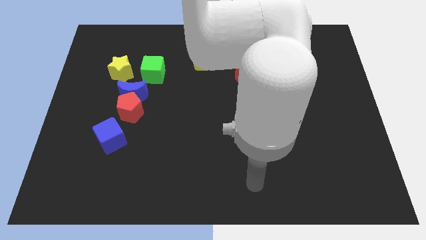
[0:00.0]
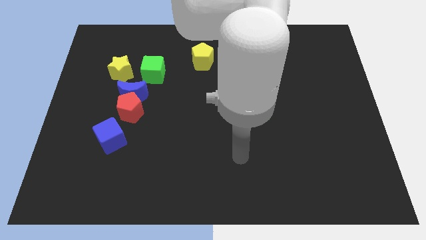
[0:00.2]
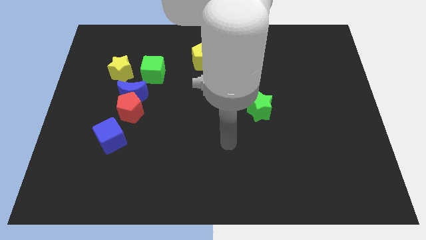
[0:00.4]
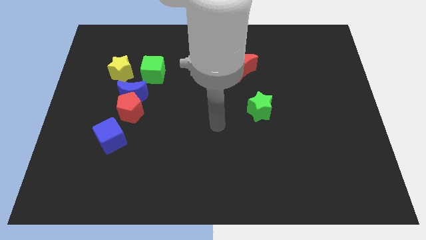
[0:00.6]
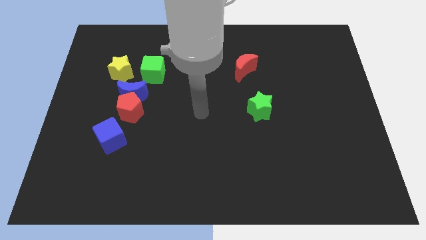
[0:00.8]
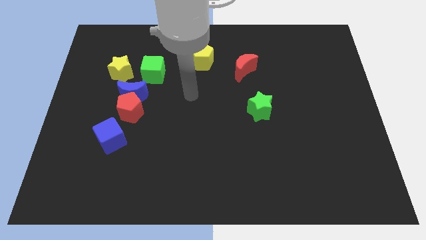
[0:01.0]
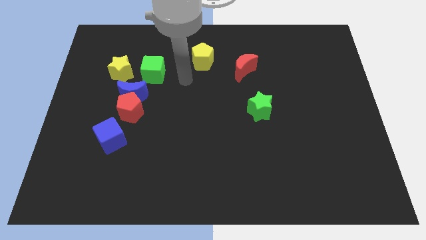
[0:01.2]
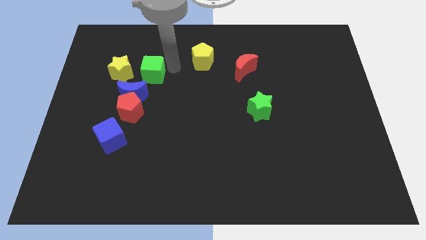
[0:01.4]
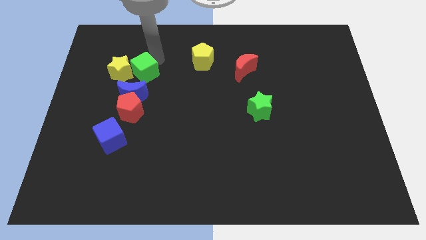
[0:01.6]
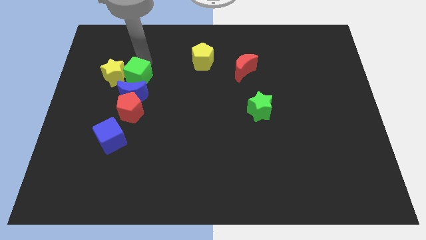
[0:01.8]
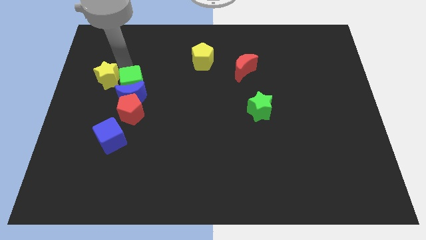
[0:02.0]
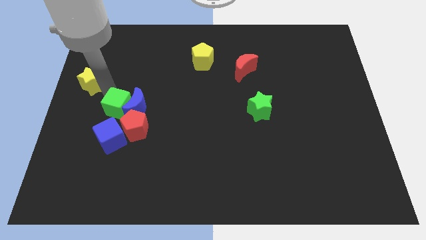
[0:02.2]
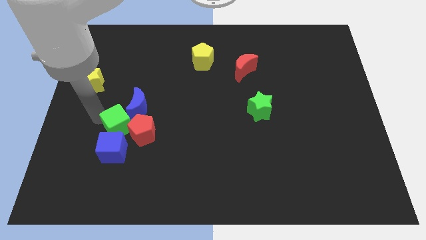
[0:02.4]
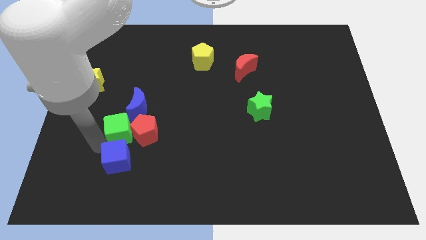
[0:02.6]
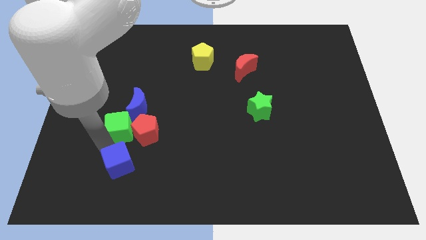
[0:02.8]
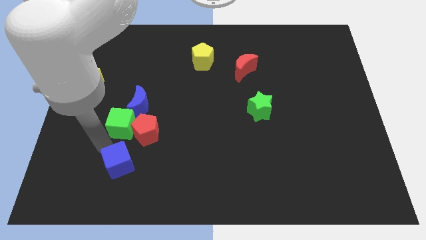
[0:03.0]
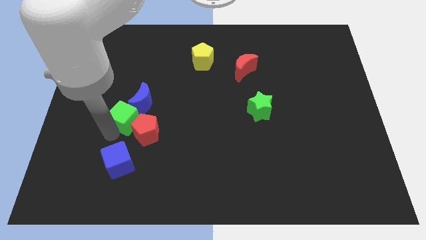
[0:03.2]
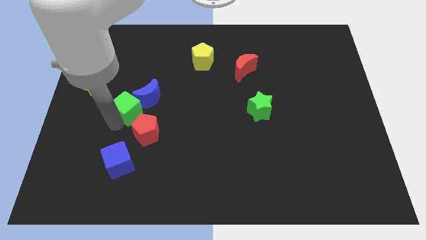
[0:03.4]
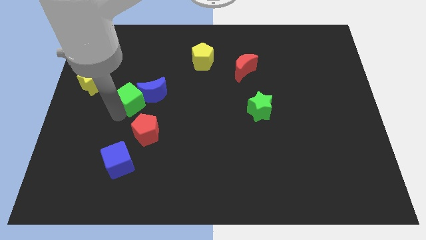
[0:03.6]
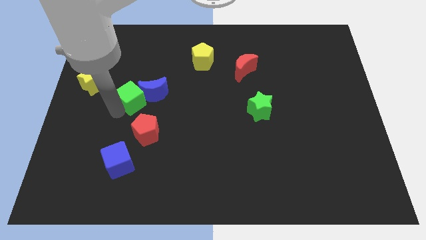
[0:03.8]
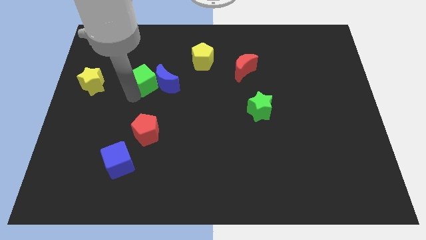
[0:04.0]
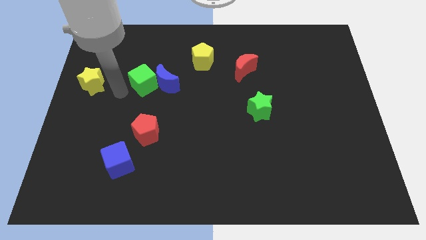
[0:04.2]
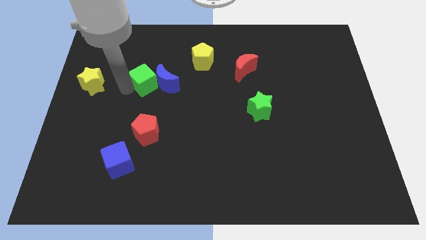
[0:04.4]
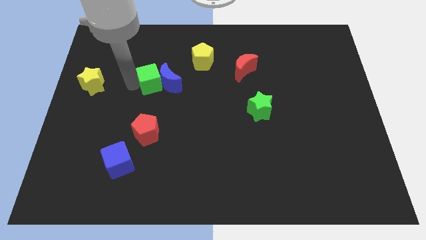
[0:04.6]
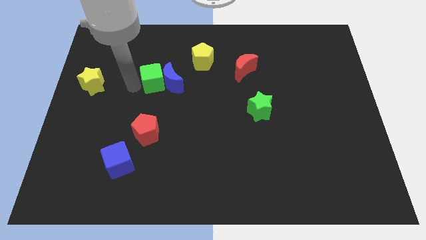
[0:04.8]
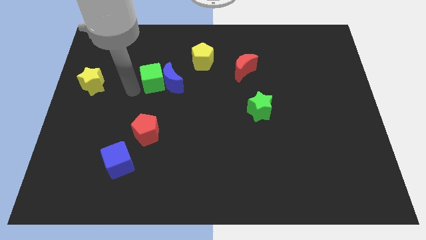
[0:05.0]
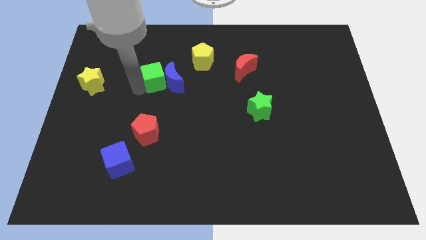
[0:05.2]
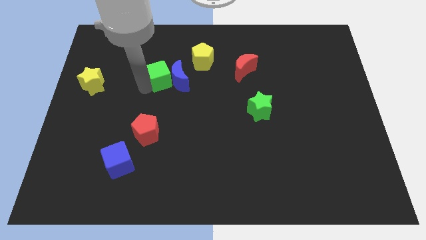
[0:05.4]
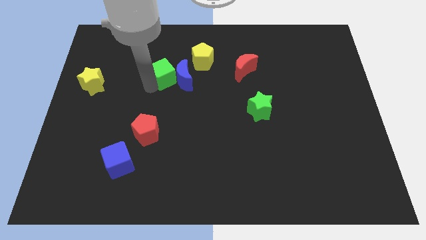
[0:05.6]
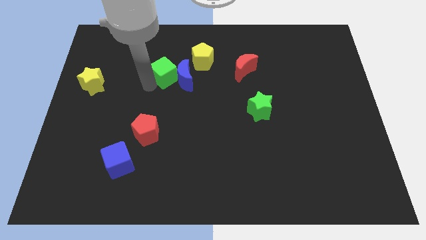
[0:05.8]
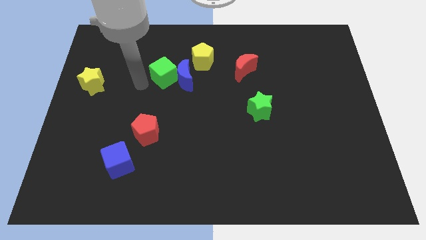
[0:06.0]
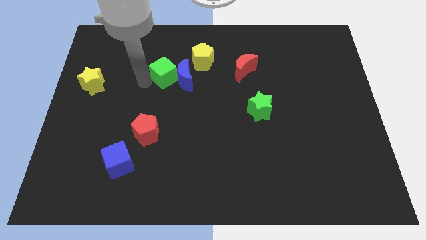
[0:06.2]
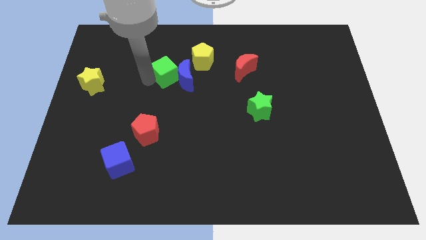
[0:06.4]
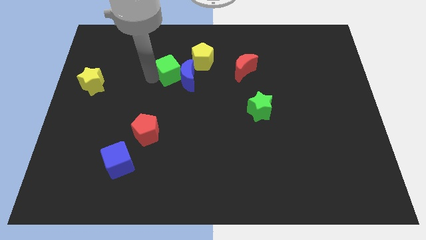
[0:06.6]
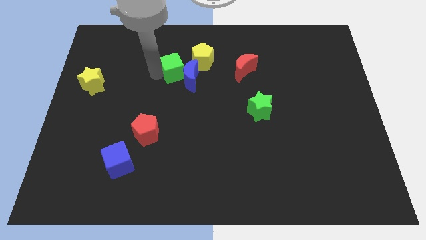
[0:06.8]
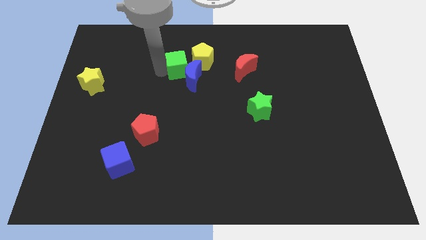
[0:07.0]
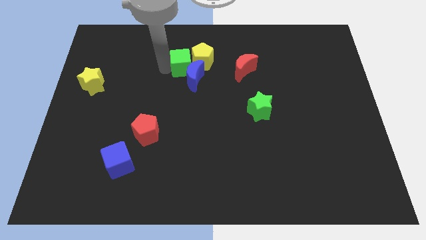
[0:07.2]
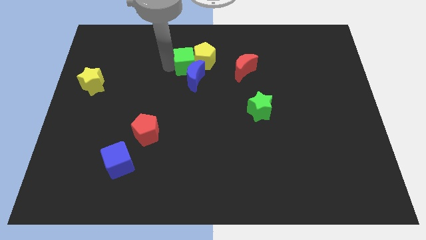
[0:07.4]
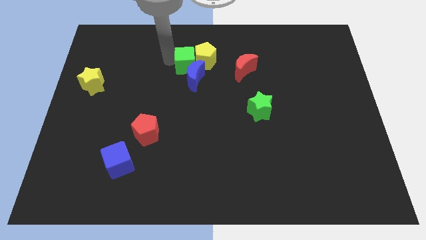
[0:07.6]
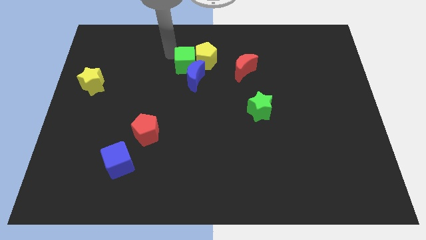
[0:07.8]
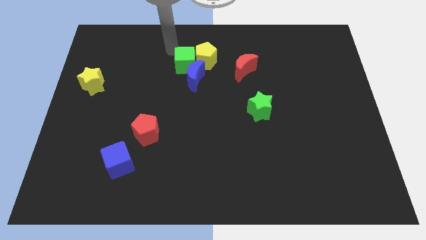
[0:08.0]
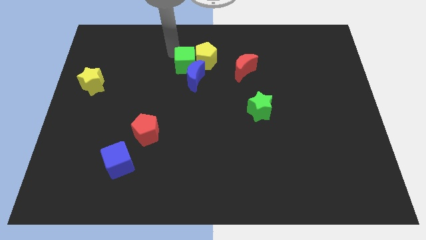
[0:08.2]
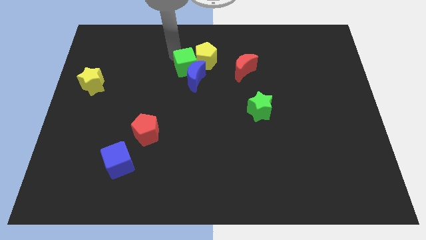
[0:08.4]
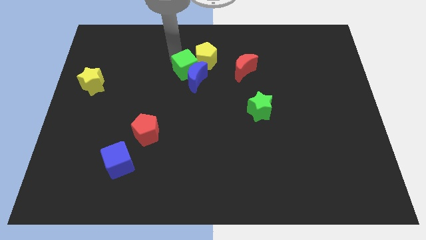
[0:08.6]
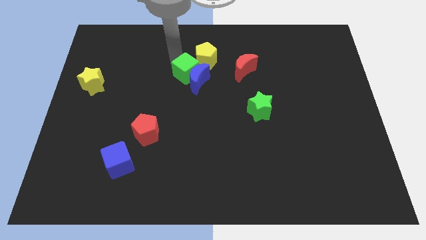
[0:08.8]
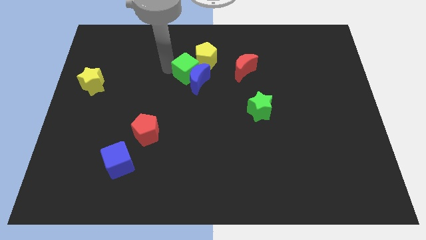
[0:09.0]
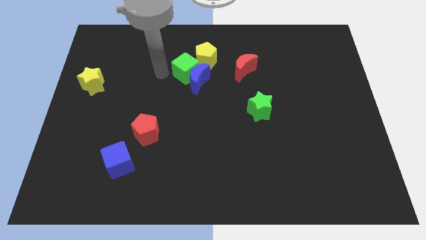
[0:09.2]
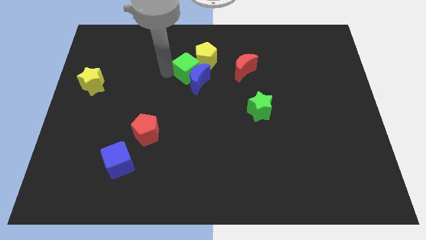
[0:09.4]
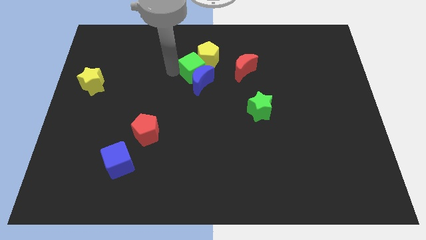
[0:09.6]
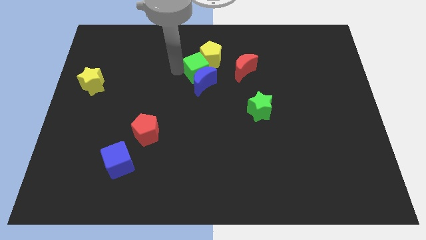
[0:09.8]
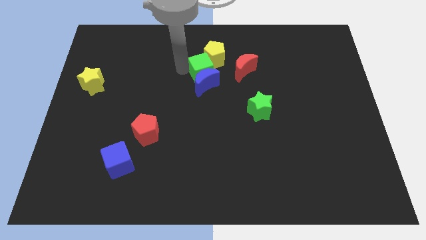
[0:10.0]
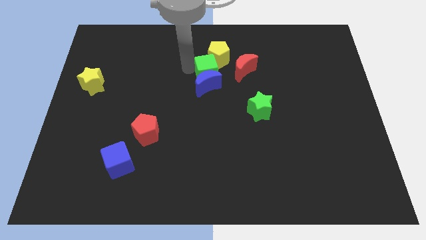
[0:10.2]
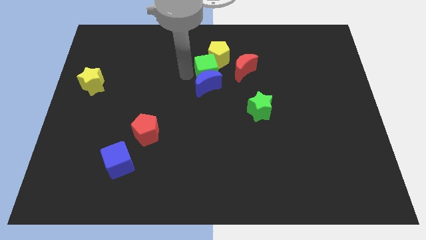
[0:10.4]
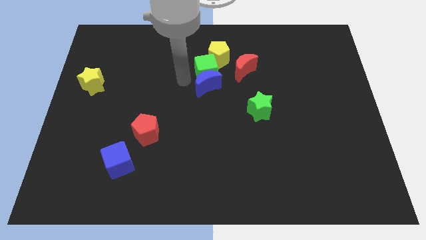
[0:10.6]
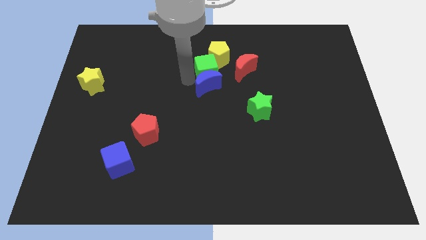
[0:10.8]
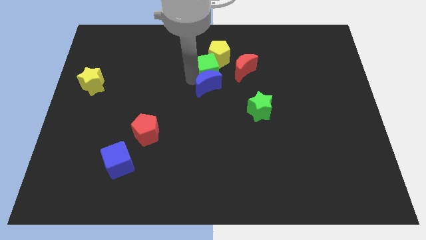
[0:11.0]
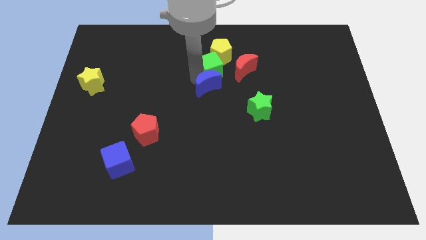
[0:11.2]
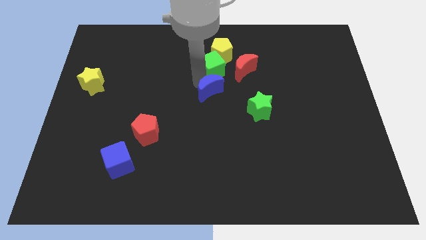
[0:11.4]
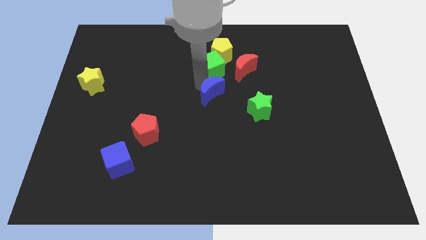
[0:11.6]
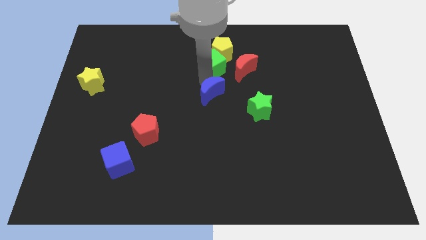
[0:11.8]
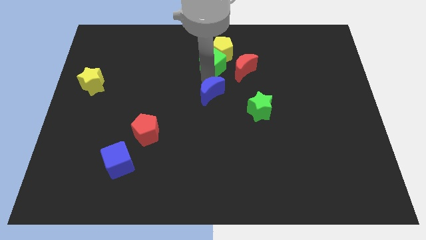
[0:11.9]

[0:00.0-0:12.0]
push the green cube to the top left side of the red moon

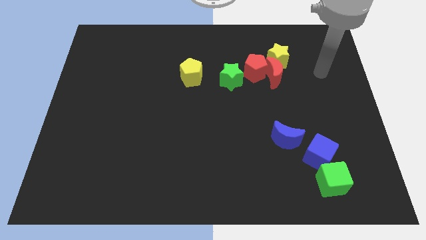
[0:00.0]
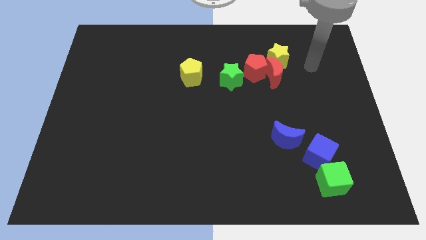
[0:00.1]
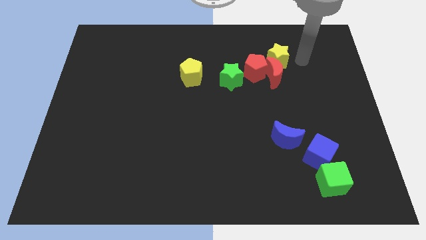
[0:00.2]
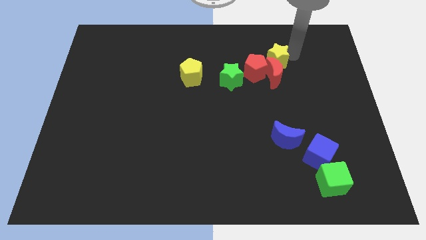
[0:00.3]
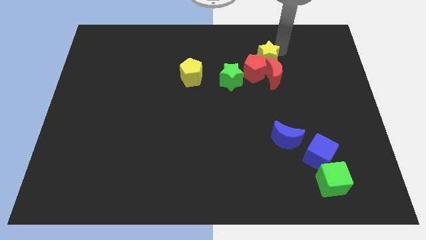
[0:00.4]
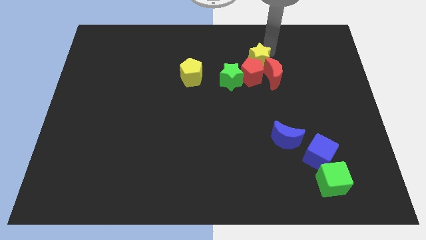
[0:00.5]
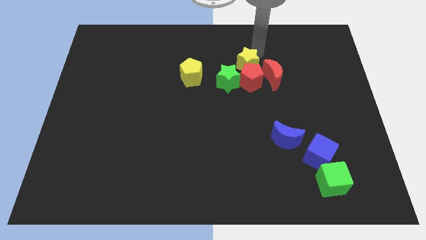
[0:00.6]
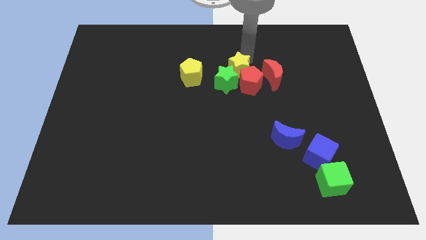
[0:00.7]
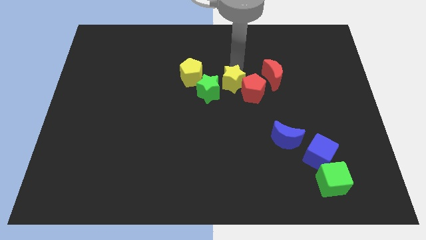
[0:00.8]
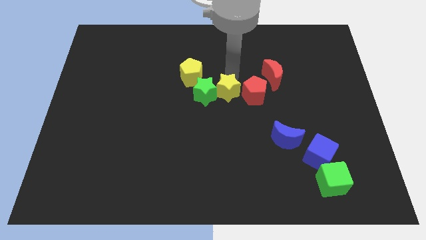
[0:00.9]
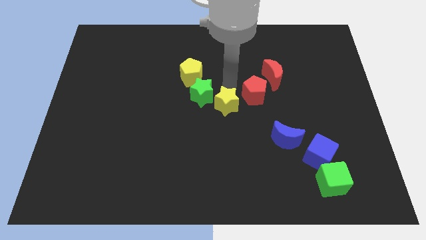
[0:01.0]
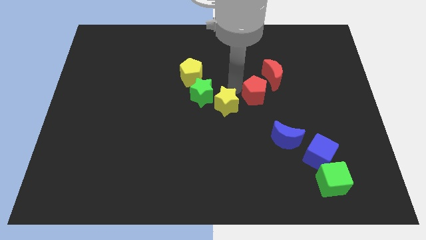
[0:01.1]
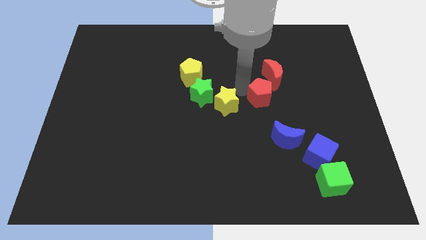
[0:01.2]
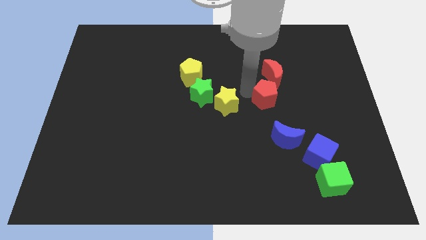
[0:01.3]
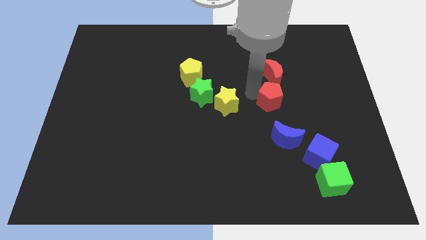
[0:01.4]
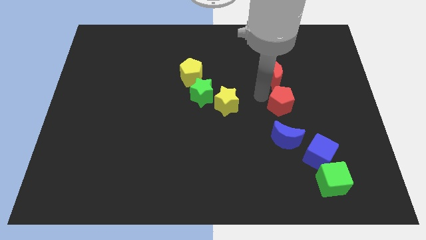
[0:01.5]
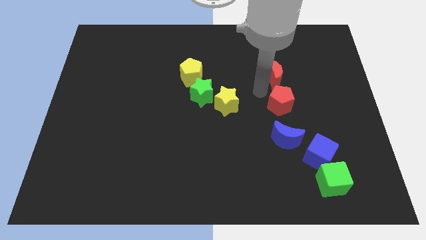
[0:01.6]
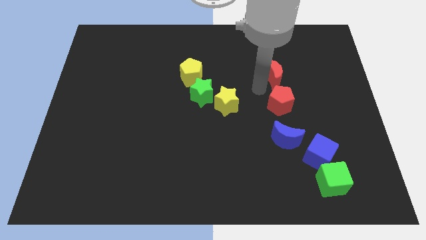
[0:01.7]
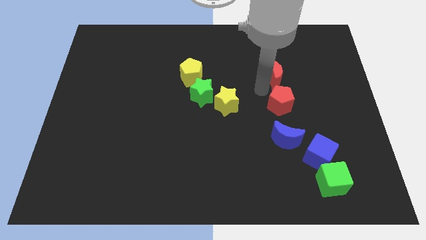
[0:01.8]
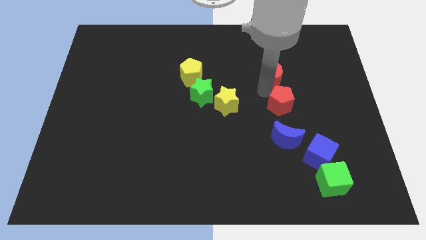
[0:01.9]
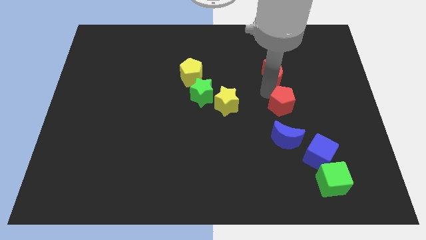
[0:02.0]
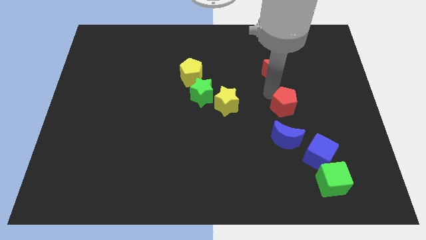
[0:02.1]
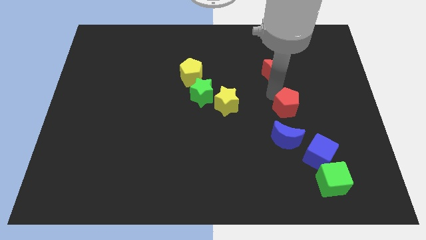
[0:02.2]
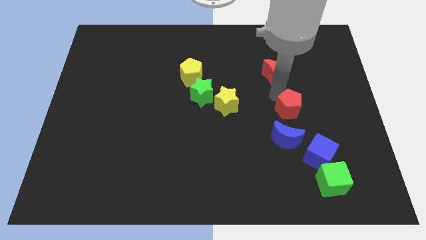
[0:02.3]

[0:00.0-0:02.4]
slide the red pentagon diagonally up and to the right of the blue moon

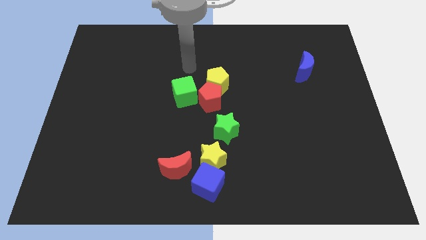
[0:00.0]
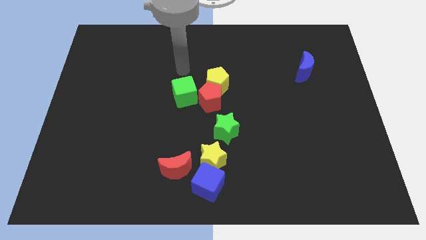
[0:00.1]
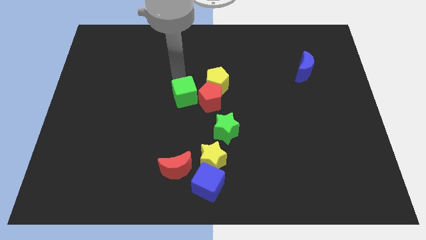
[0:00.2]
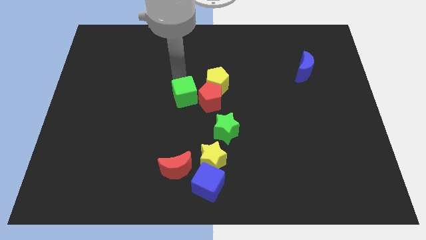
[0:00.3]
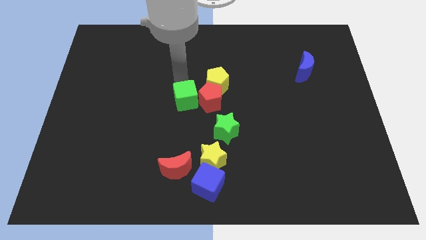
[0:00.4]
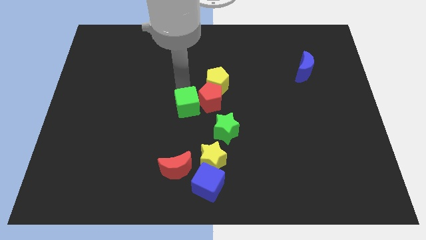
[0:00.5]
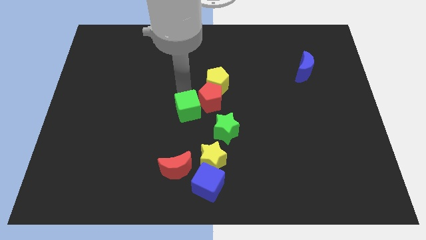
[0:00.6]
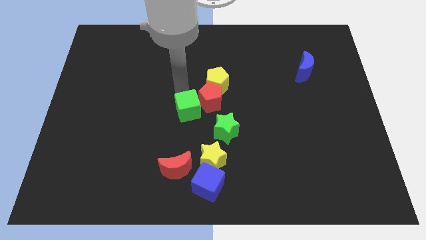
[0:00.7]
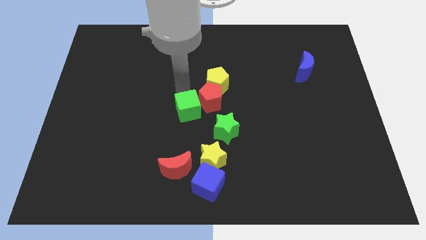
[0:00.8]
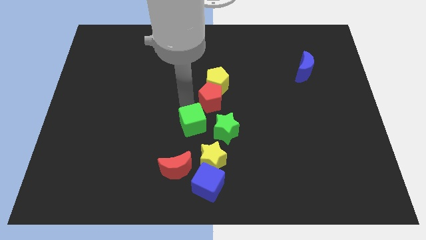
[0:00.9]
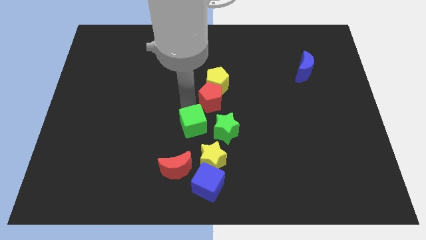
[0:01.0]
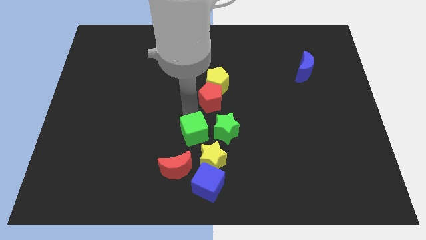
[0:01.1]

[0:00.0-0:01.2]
put the green cube to the top right of the red moon
